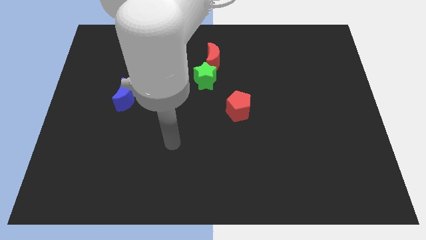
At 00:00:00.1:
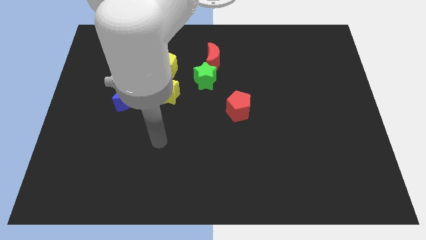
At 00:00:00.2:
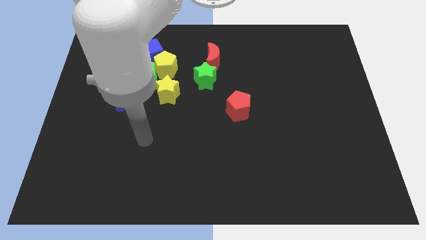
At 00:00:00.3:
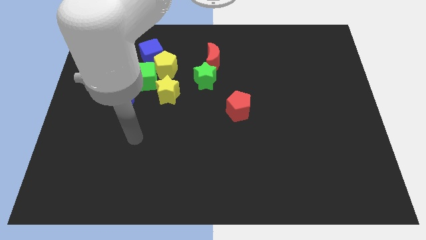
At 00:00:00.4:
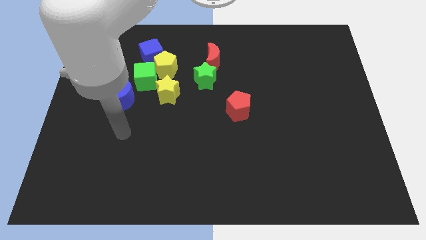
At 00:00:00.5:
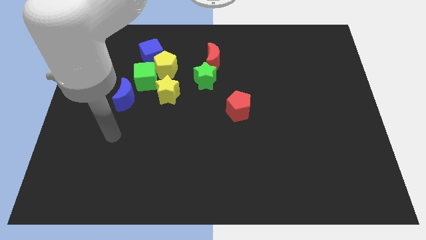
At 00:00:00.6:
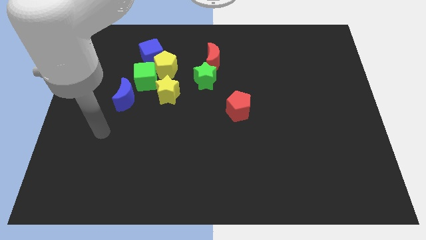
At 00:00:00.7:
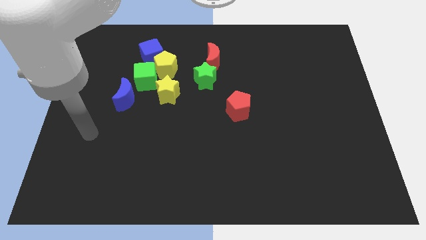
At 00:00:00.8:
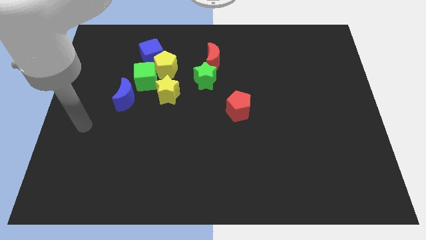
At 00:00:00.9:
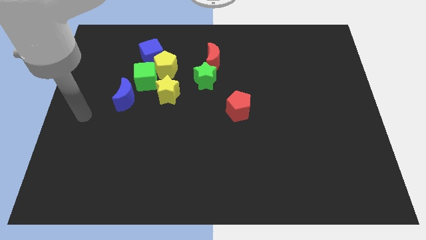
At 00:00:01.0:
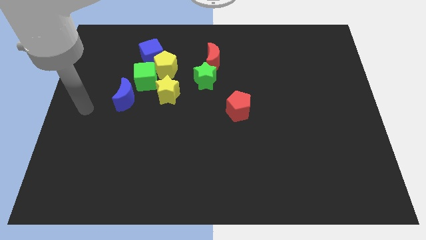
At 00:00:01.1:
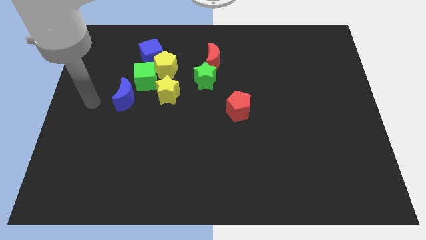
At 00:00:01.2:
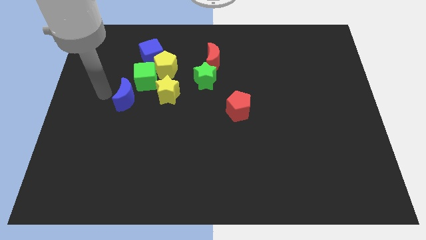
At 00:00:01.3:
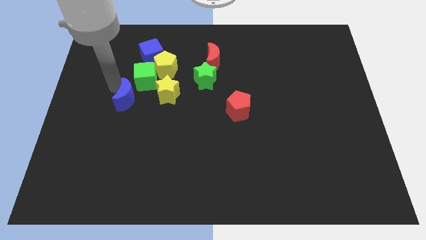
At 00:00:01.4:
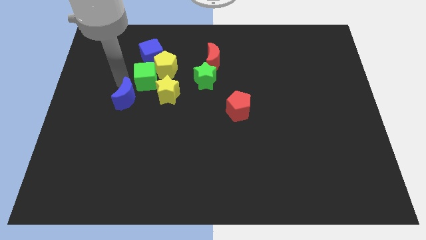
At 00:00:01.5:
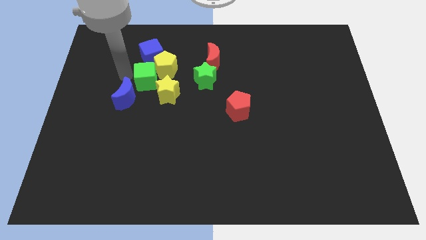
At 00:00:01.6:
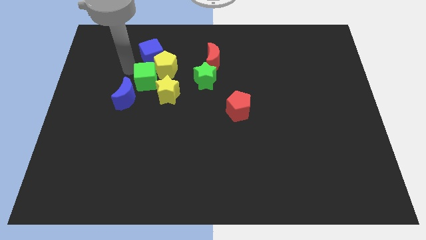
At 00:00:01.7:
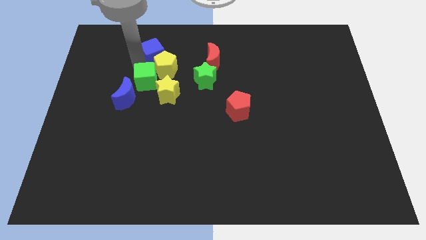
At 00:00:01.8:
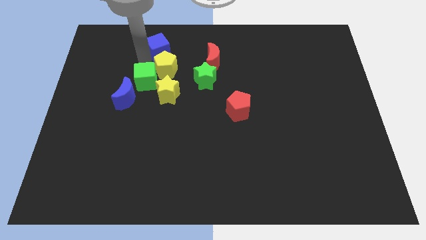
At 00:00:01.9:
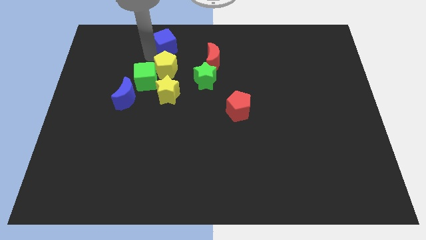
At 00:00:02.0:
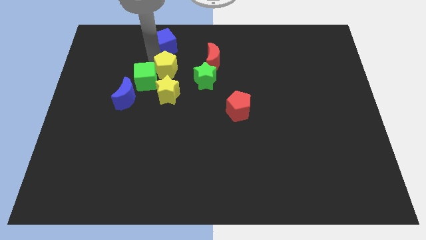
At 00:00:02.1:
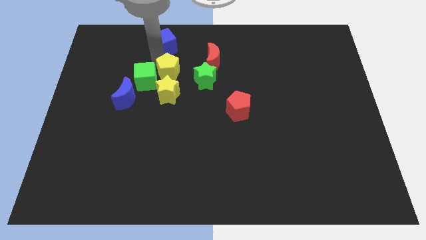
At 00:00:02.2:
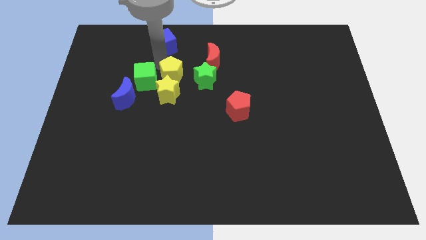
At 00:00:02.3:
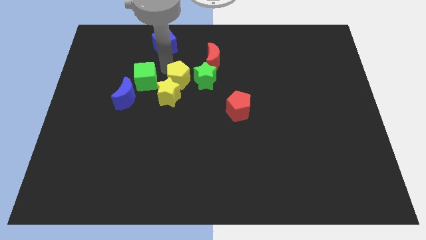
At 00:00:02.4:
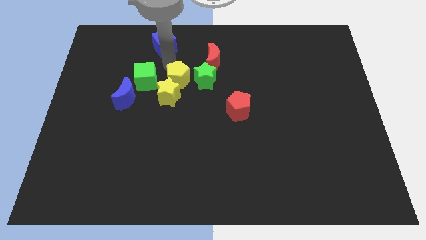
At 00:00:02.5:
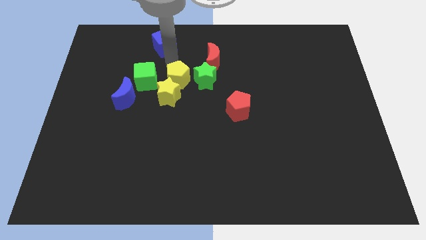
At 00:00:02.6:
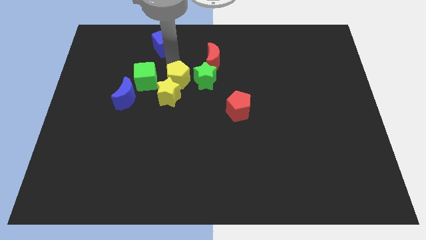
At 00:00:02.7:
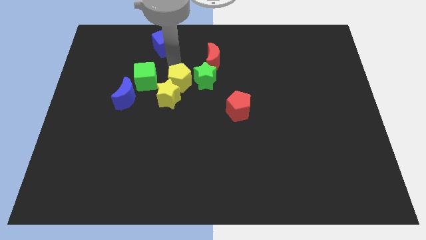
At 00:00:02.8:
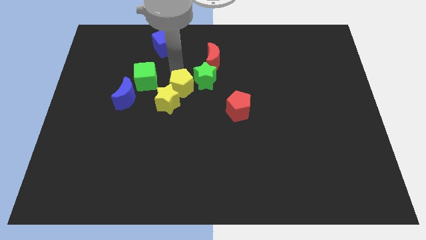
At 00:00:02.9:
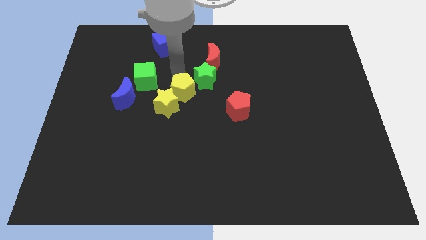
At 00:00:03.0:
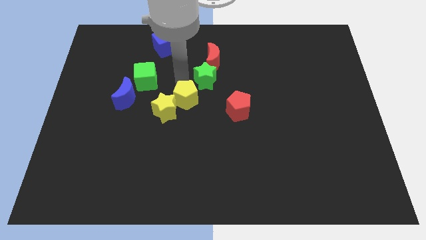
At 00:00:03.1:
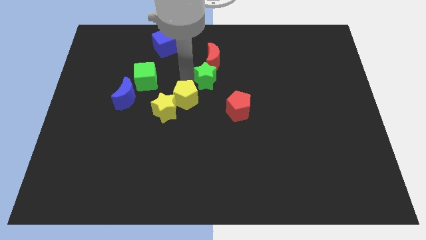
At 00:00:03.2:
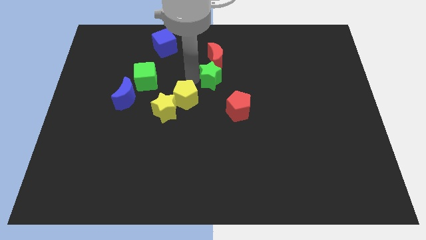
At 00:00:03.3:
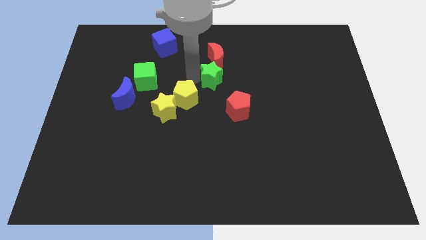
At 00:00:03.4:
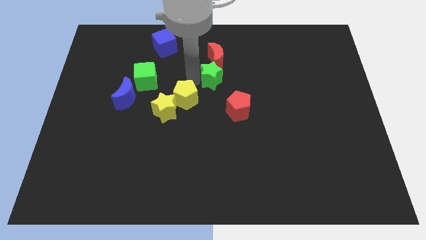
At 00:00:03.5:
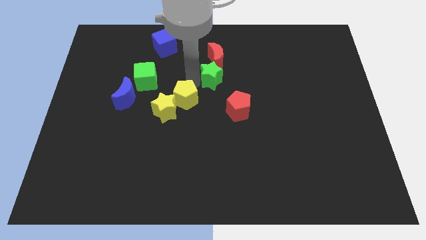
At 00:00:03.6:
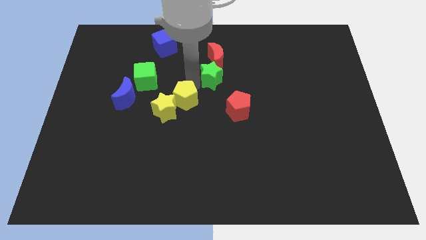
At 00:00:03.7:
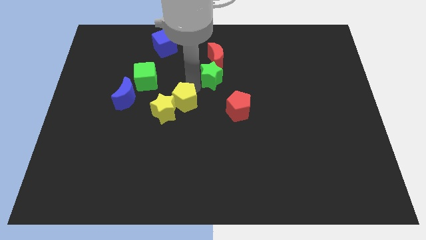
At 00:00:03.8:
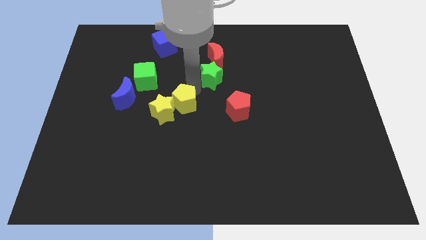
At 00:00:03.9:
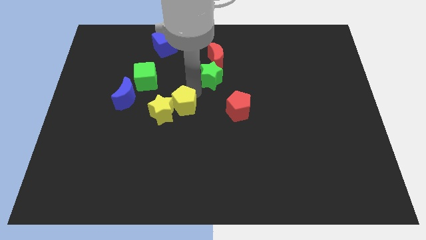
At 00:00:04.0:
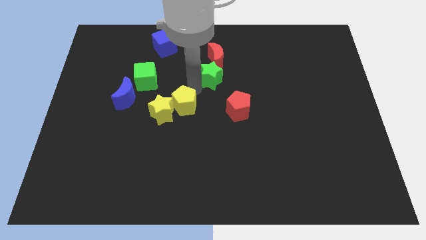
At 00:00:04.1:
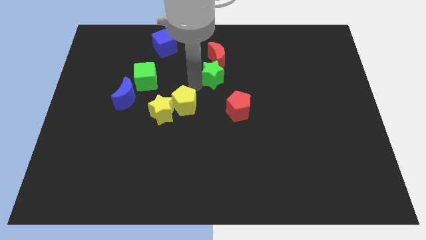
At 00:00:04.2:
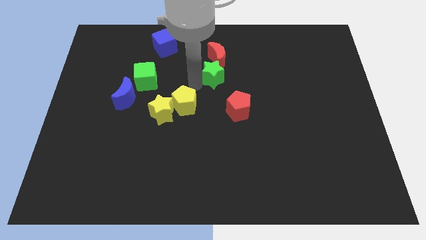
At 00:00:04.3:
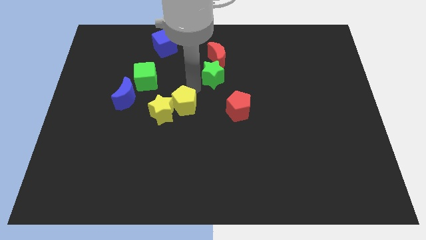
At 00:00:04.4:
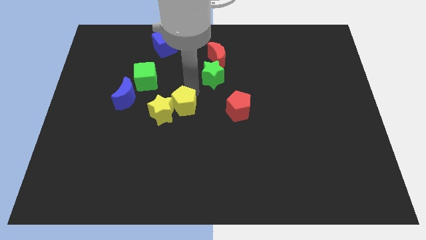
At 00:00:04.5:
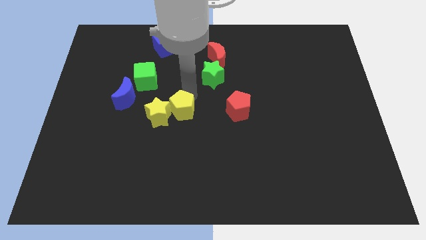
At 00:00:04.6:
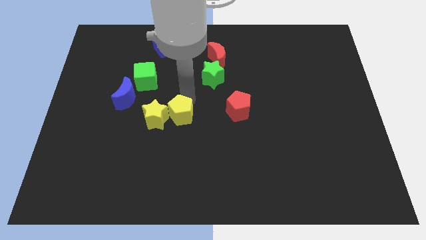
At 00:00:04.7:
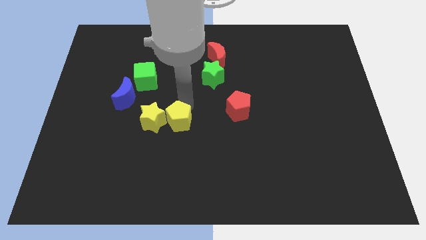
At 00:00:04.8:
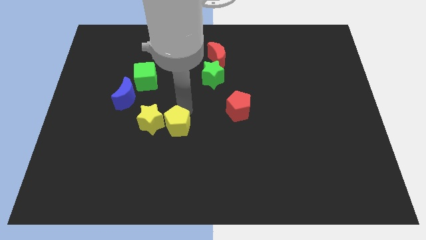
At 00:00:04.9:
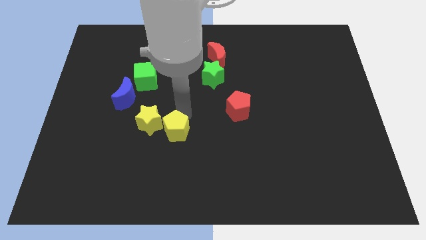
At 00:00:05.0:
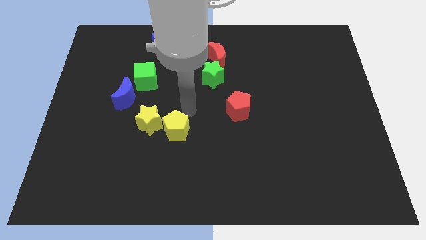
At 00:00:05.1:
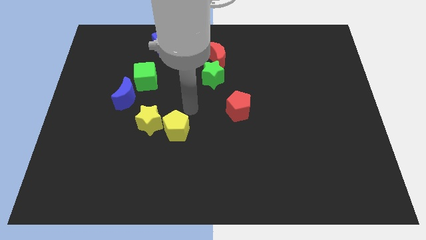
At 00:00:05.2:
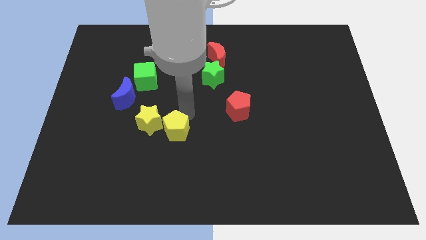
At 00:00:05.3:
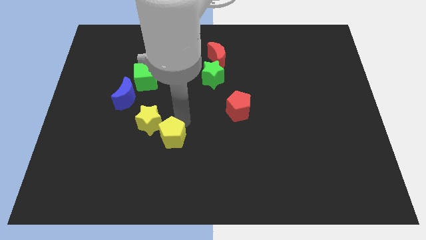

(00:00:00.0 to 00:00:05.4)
push the yellow pentagon down

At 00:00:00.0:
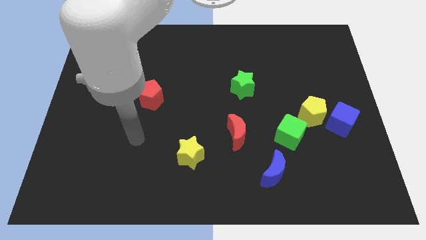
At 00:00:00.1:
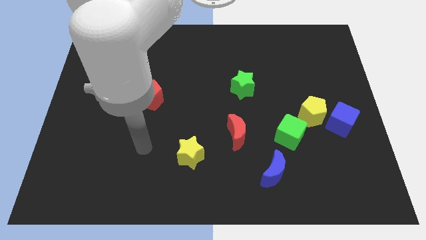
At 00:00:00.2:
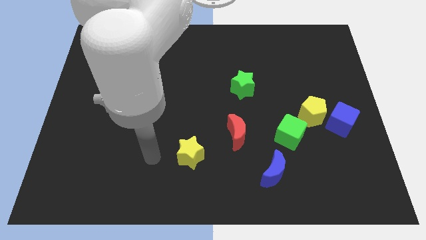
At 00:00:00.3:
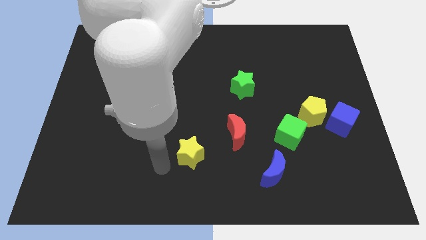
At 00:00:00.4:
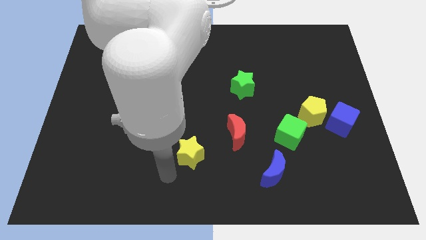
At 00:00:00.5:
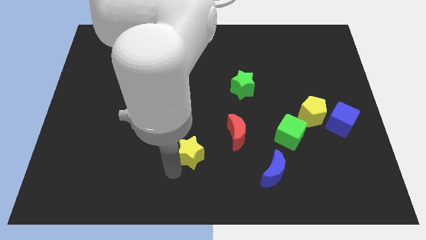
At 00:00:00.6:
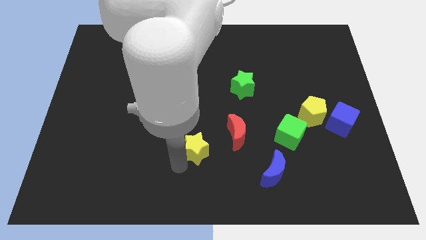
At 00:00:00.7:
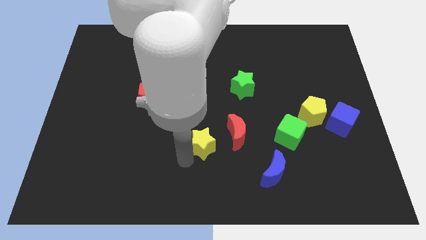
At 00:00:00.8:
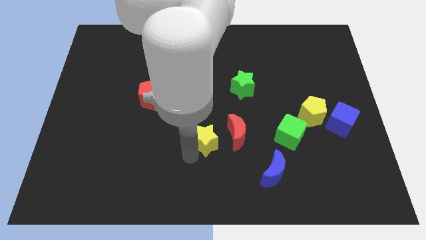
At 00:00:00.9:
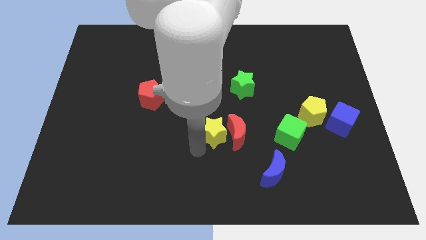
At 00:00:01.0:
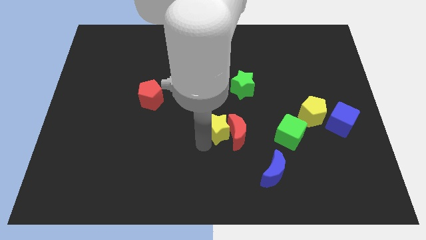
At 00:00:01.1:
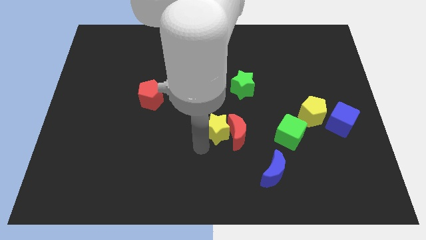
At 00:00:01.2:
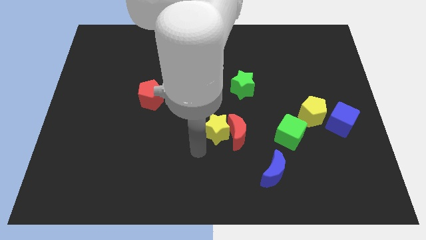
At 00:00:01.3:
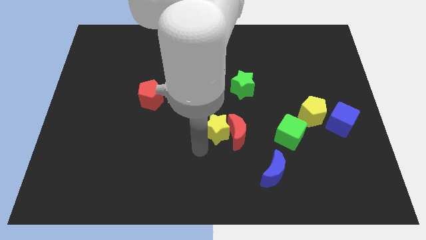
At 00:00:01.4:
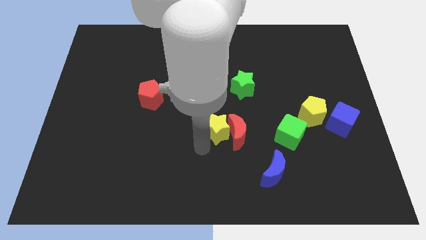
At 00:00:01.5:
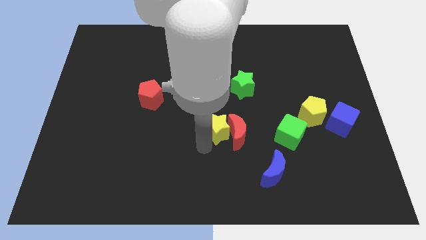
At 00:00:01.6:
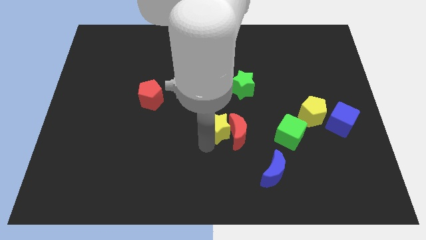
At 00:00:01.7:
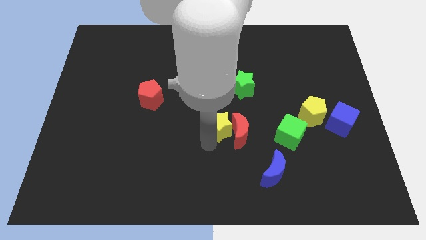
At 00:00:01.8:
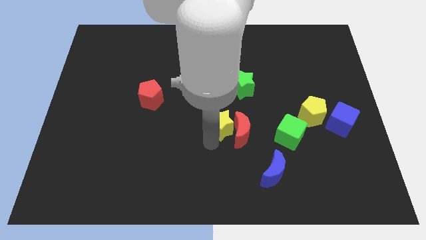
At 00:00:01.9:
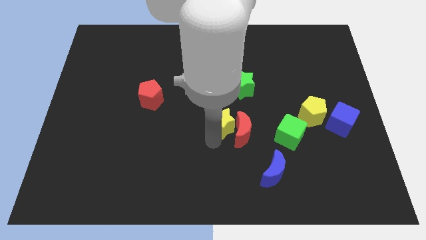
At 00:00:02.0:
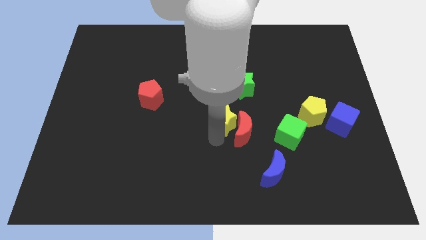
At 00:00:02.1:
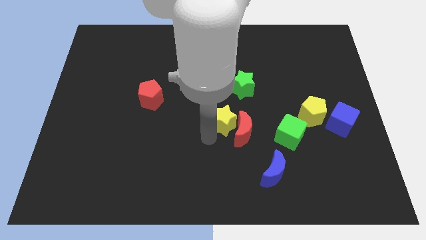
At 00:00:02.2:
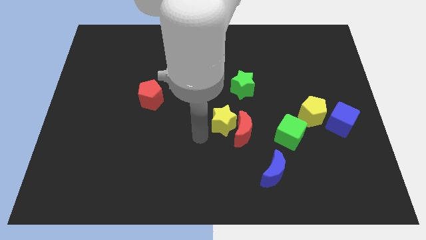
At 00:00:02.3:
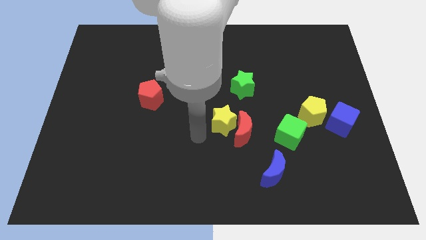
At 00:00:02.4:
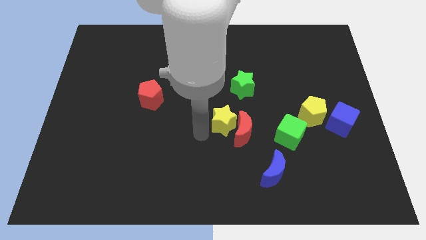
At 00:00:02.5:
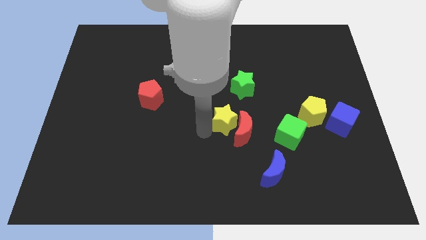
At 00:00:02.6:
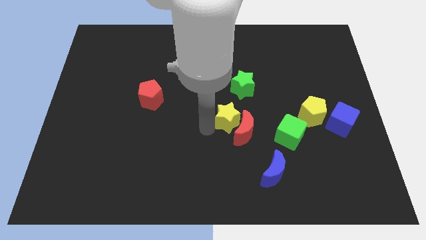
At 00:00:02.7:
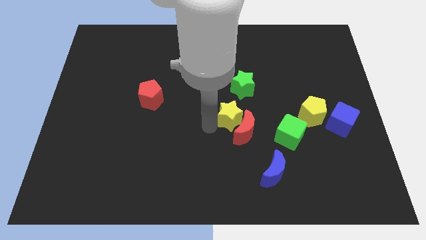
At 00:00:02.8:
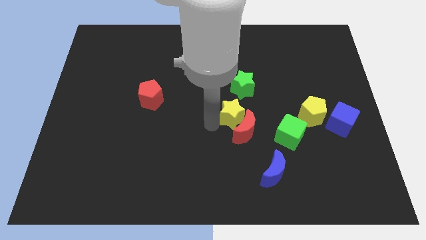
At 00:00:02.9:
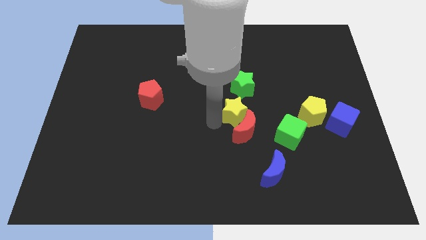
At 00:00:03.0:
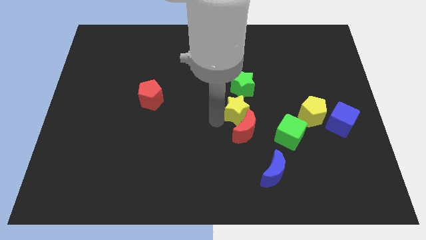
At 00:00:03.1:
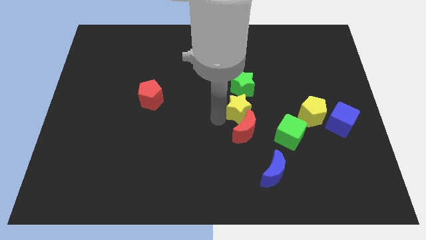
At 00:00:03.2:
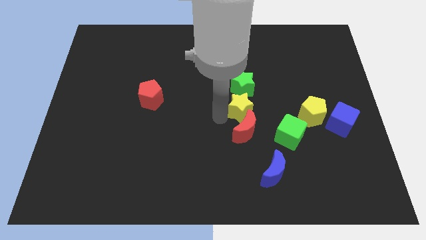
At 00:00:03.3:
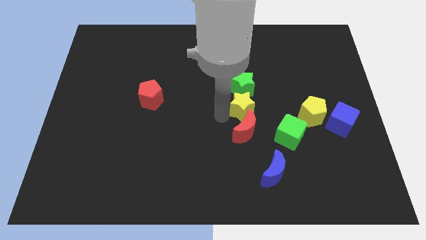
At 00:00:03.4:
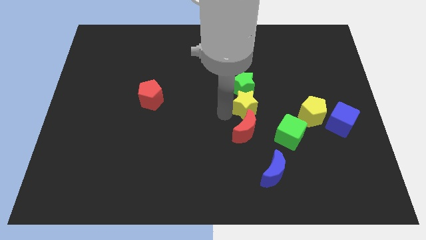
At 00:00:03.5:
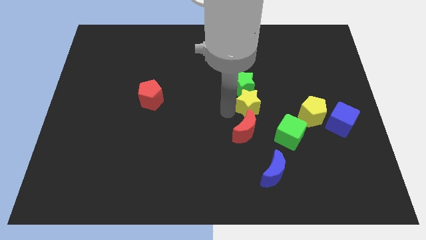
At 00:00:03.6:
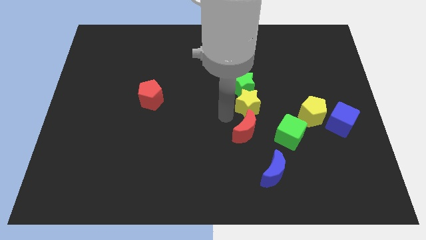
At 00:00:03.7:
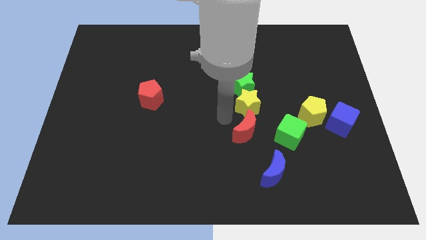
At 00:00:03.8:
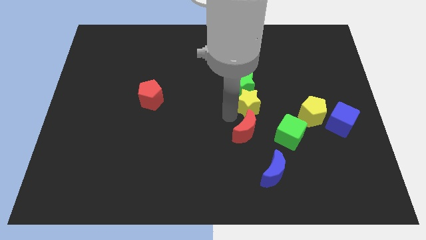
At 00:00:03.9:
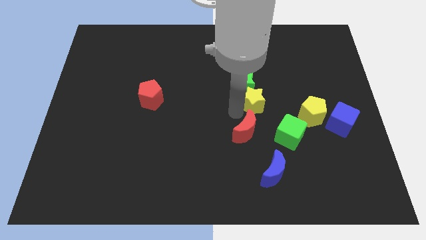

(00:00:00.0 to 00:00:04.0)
push the yellow star up and to the right diagonally
